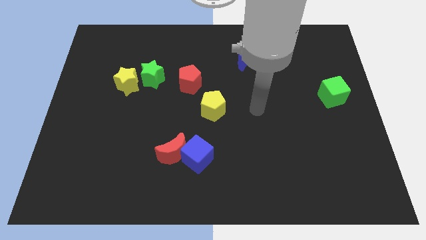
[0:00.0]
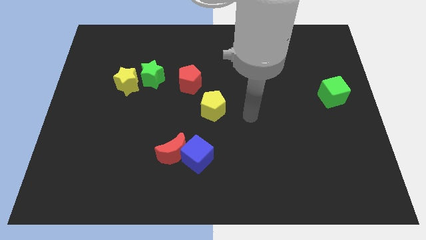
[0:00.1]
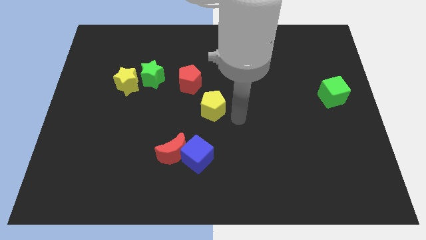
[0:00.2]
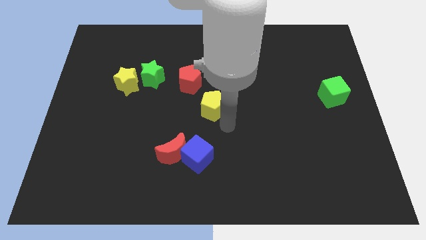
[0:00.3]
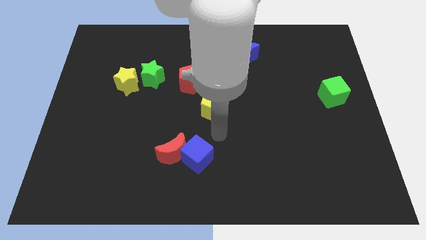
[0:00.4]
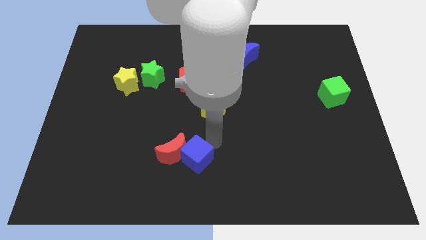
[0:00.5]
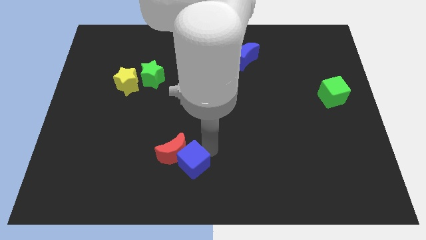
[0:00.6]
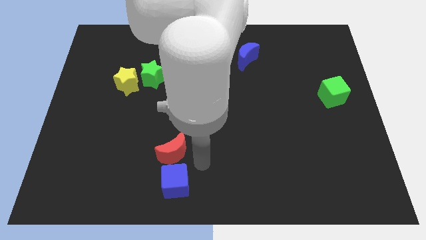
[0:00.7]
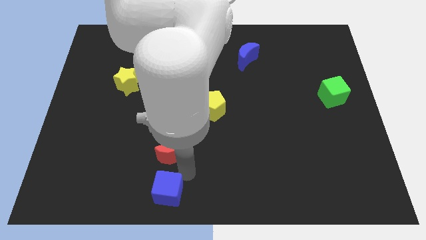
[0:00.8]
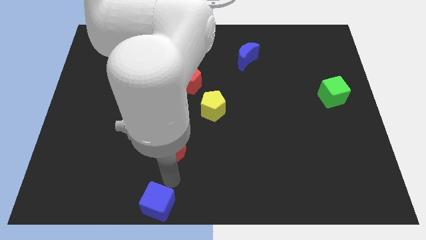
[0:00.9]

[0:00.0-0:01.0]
pull the red moon apart from the blue cube

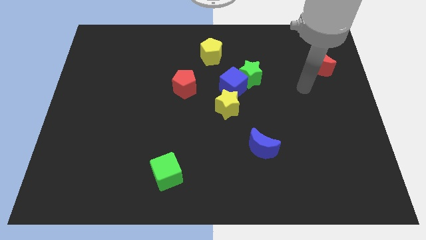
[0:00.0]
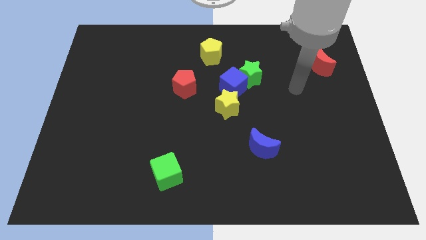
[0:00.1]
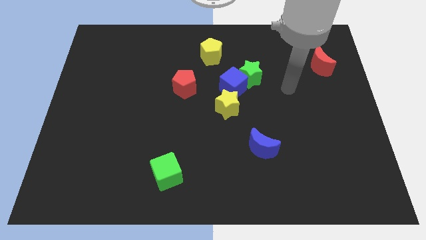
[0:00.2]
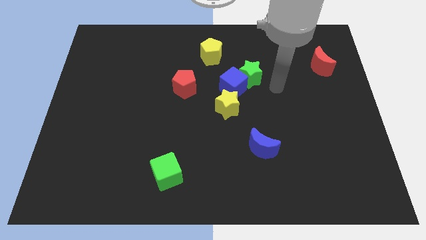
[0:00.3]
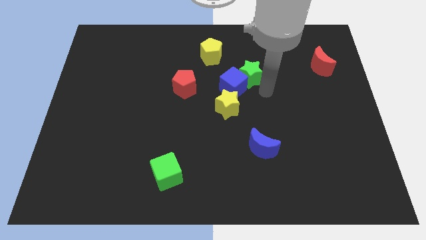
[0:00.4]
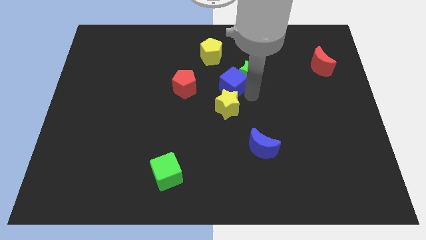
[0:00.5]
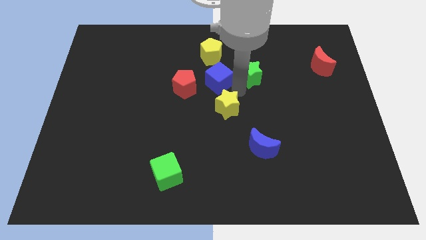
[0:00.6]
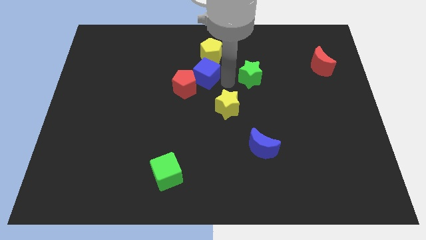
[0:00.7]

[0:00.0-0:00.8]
move the green star away from the blue cube

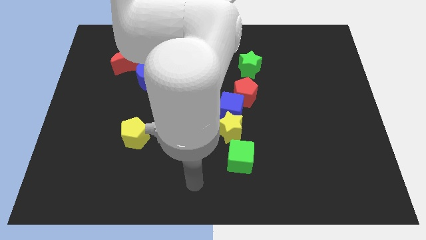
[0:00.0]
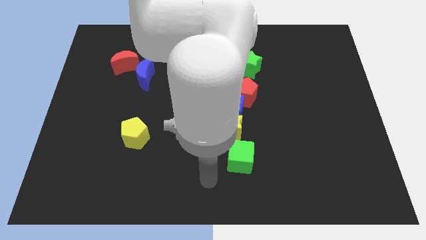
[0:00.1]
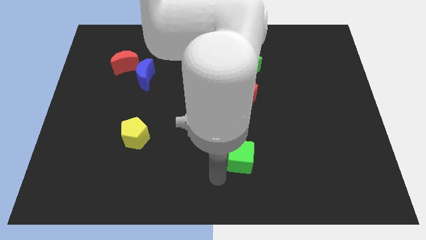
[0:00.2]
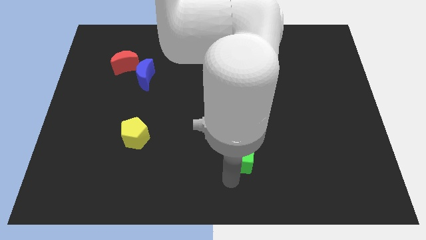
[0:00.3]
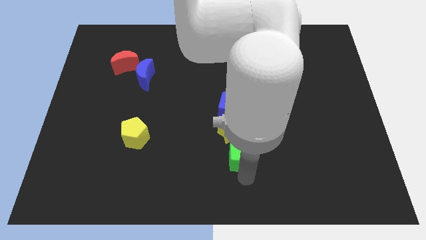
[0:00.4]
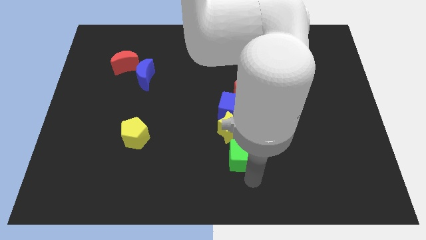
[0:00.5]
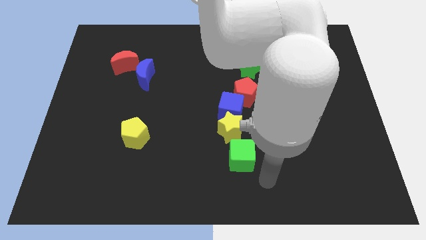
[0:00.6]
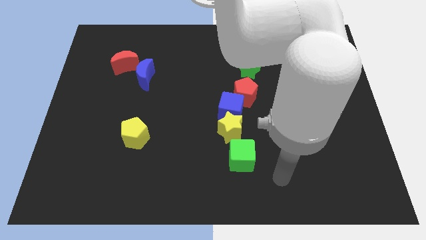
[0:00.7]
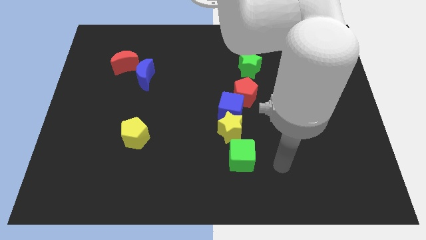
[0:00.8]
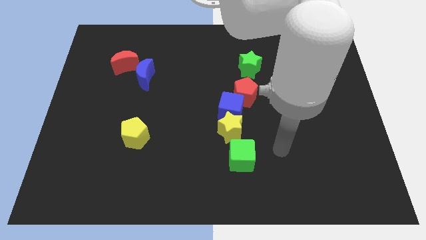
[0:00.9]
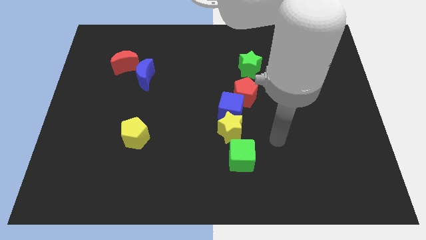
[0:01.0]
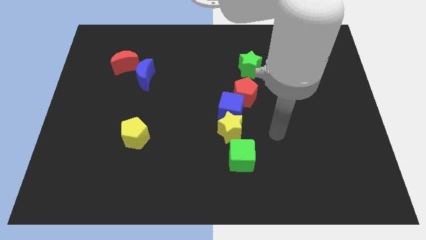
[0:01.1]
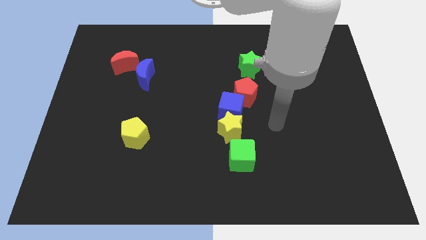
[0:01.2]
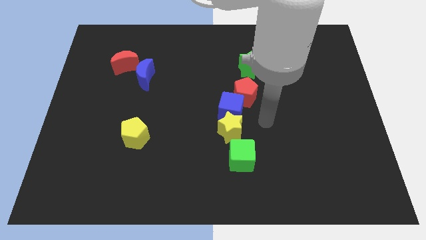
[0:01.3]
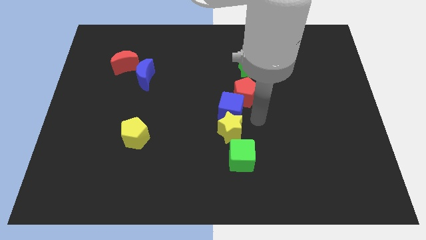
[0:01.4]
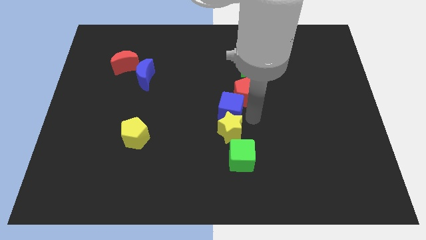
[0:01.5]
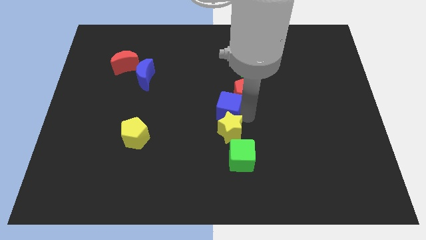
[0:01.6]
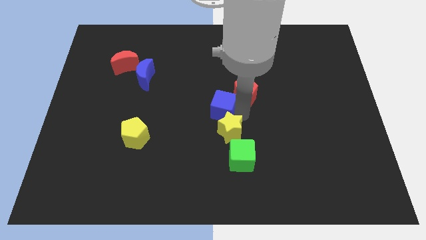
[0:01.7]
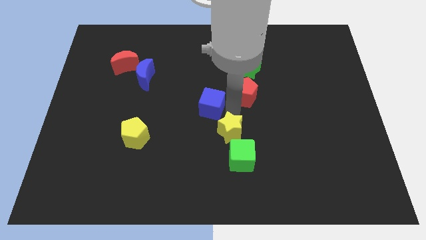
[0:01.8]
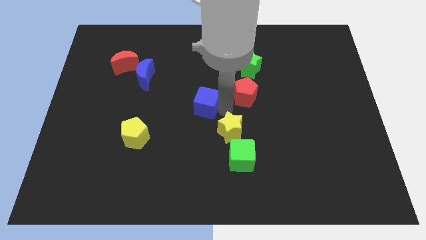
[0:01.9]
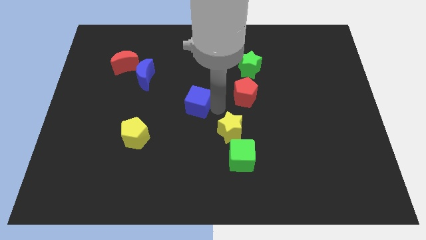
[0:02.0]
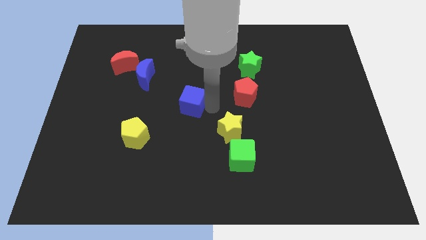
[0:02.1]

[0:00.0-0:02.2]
separate the blue cube from the yellow star and red pentagon

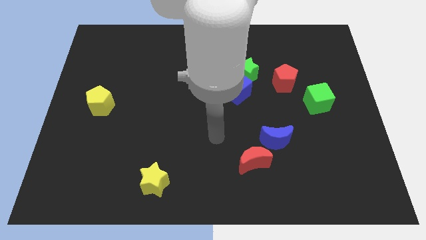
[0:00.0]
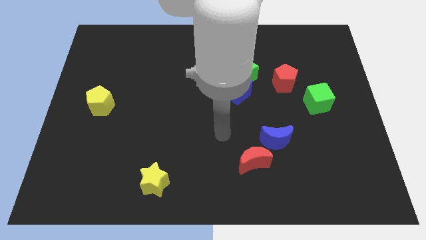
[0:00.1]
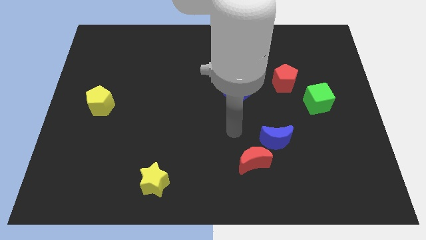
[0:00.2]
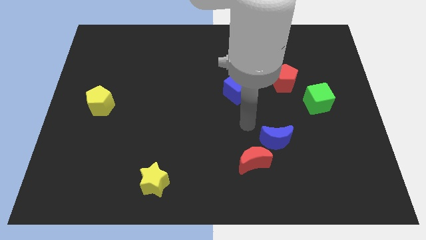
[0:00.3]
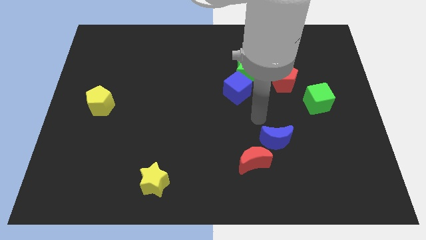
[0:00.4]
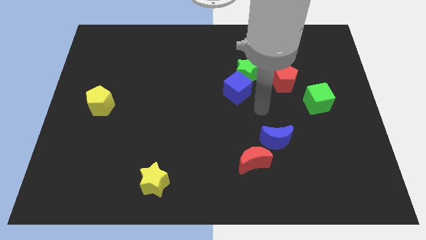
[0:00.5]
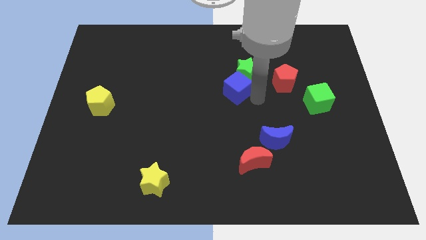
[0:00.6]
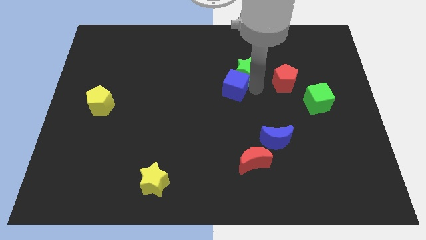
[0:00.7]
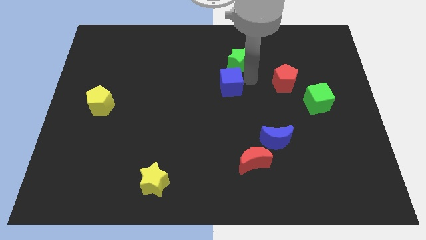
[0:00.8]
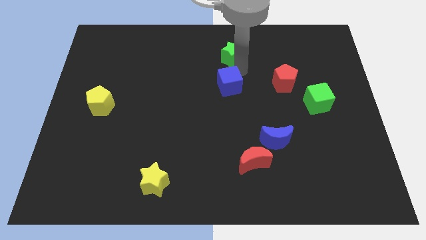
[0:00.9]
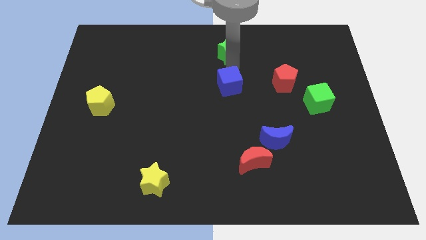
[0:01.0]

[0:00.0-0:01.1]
pull the blue cube apart from the green star

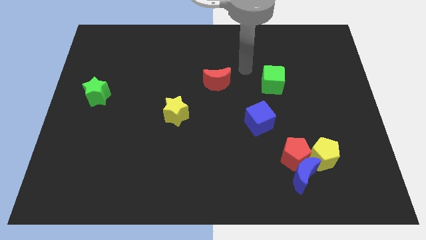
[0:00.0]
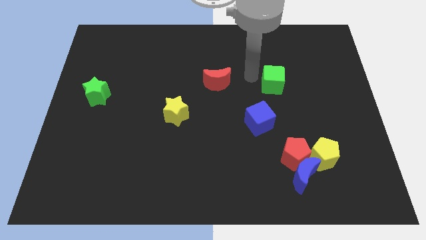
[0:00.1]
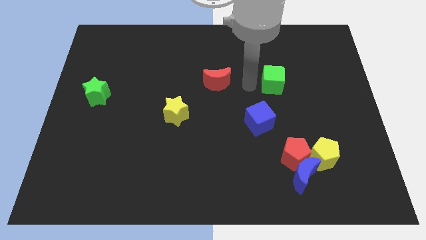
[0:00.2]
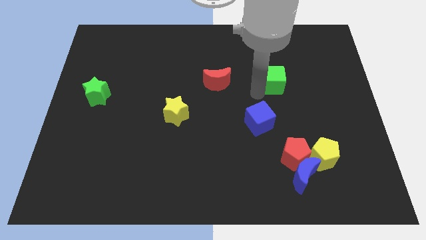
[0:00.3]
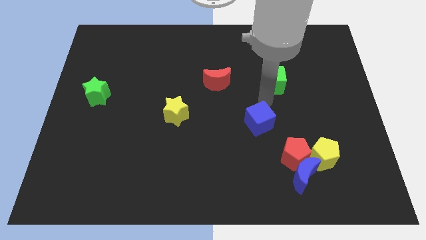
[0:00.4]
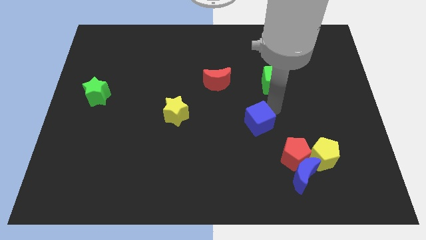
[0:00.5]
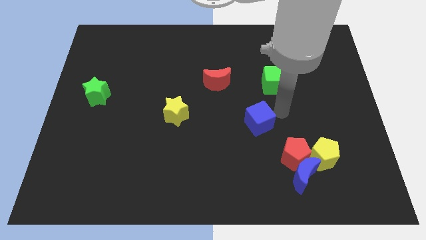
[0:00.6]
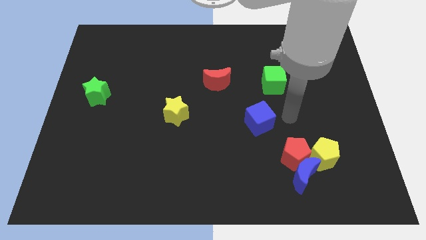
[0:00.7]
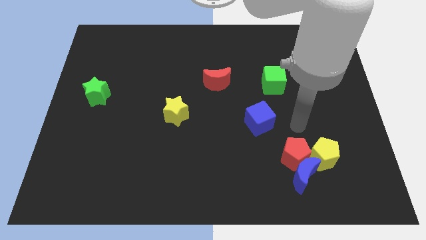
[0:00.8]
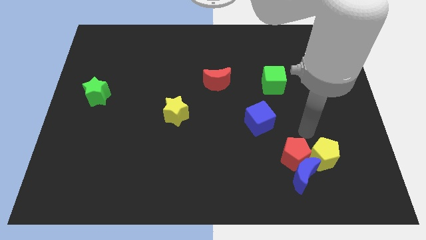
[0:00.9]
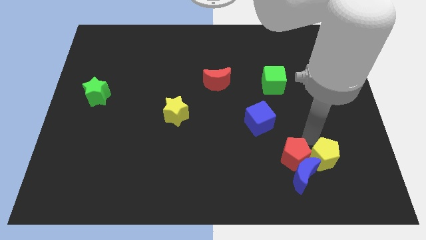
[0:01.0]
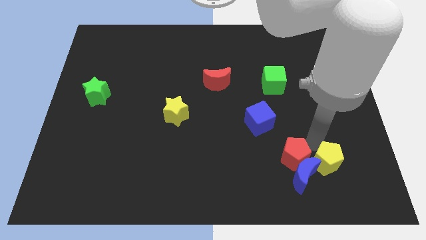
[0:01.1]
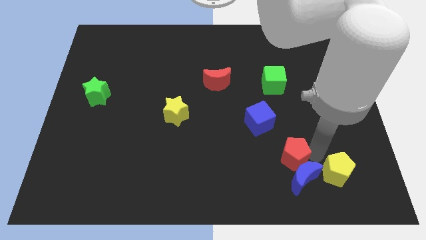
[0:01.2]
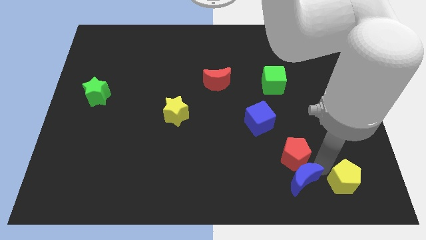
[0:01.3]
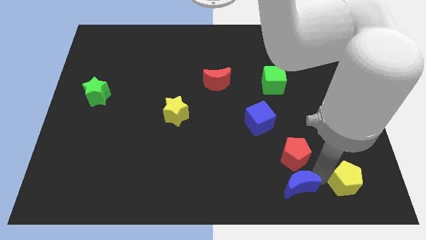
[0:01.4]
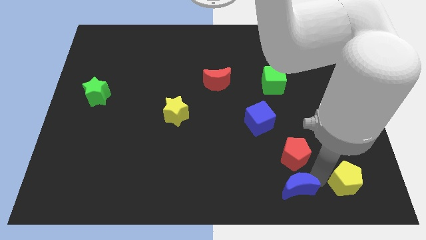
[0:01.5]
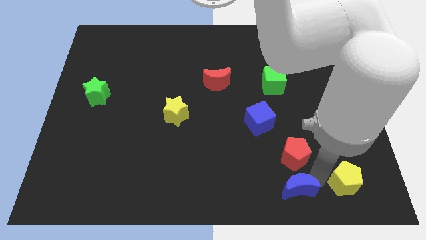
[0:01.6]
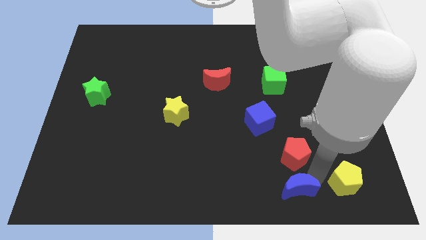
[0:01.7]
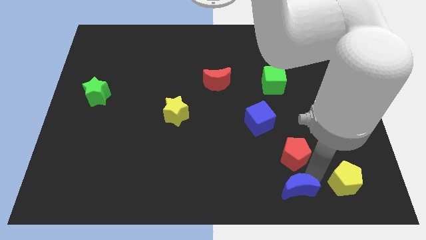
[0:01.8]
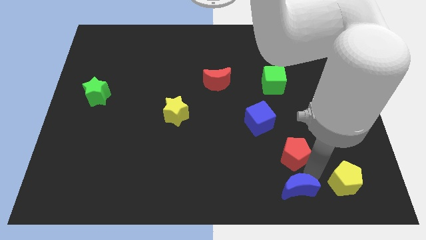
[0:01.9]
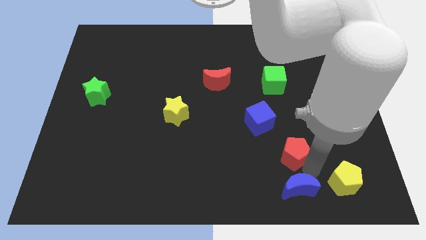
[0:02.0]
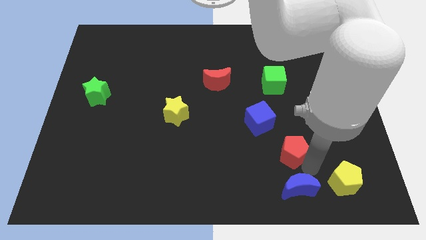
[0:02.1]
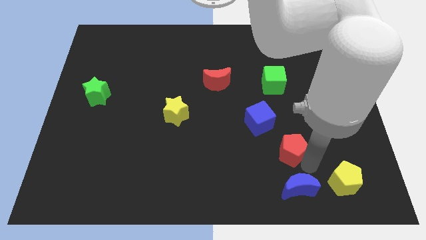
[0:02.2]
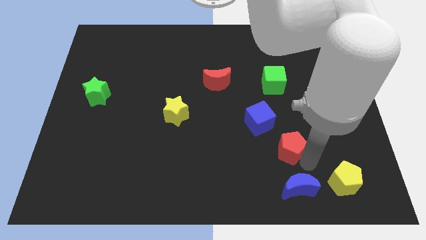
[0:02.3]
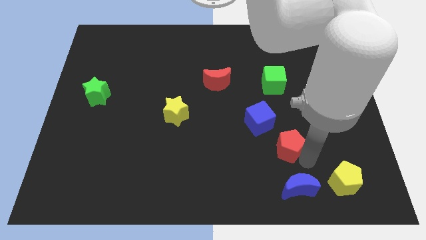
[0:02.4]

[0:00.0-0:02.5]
separate the red pentagon from the blue moon and yellow pentagon

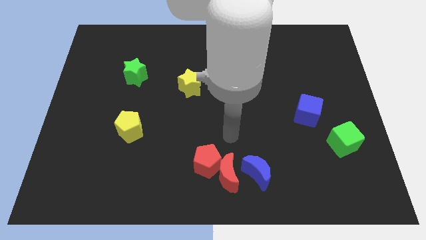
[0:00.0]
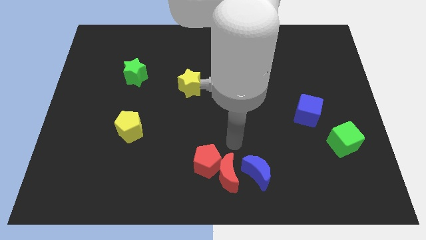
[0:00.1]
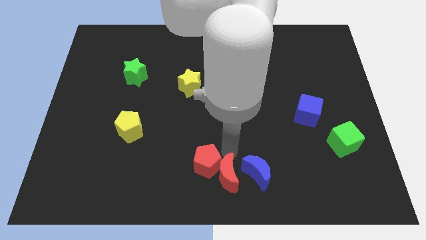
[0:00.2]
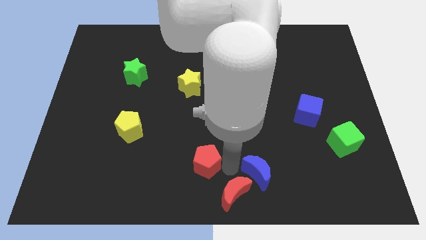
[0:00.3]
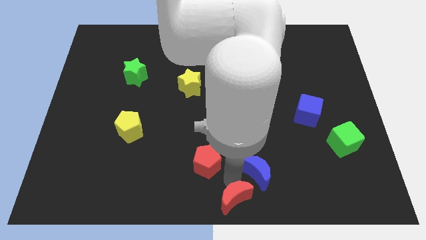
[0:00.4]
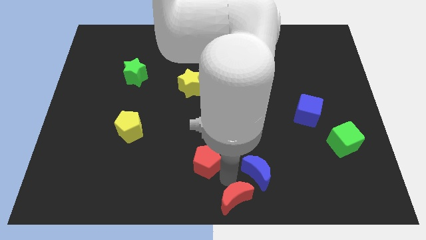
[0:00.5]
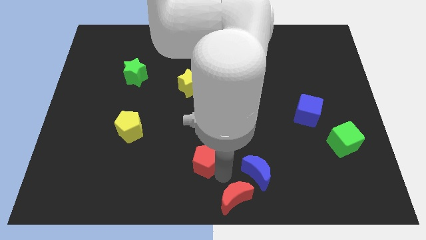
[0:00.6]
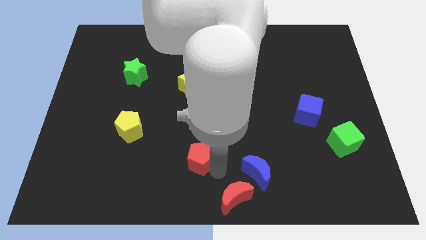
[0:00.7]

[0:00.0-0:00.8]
move the red pentagon away from the red moon

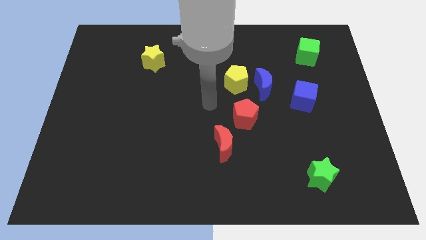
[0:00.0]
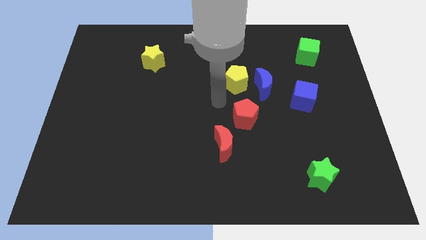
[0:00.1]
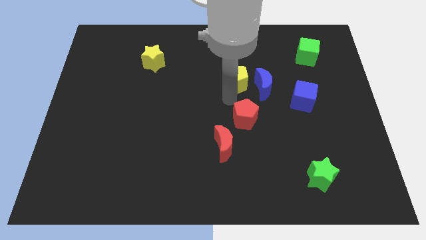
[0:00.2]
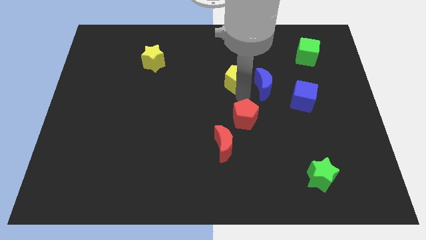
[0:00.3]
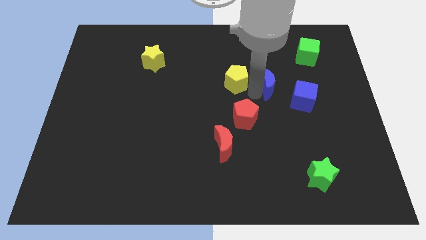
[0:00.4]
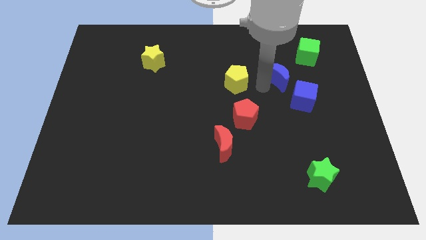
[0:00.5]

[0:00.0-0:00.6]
separate the yellow pentagon from the blue moon

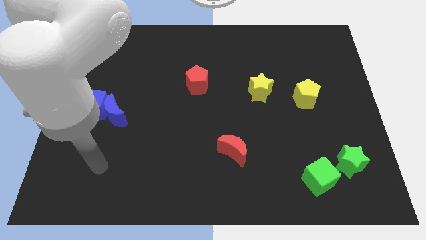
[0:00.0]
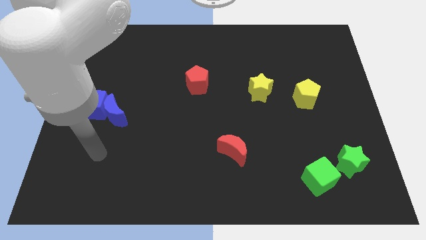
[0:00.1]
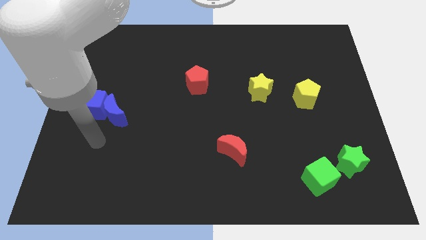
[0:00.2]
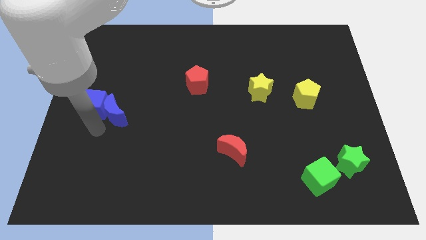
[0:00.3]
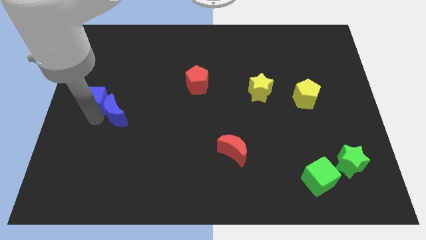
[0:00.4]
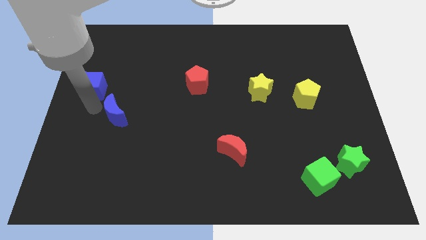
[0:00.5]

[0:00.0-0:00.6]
move the blue moon away from the blue cube
